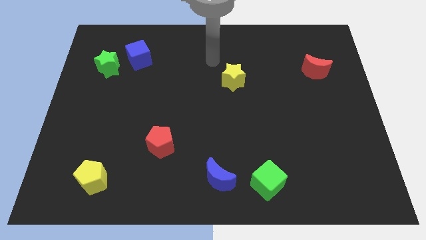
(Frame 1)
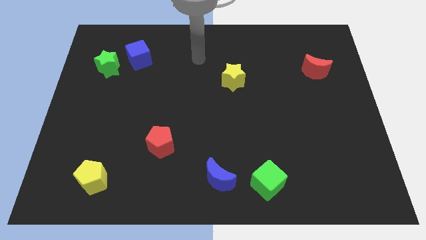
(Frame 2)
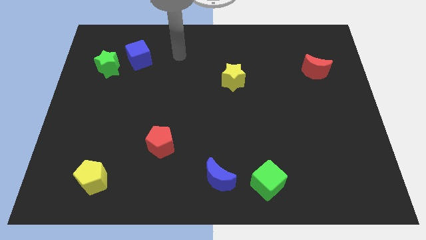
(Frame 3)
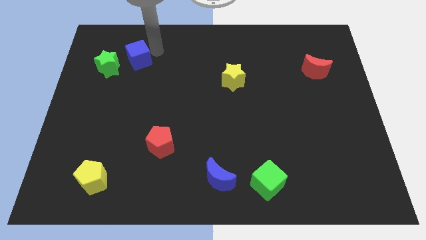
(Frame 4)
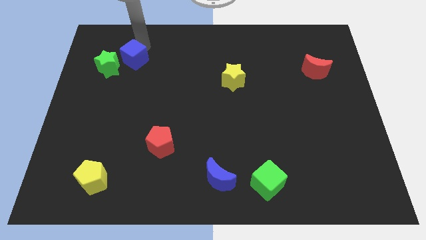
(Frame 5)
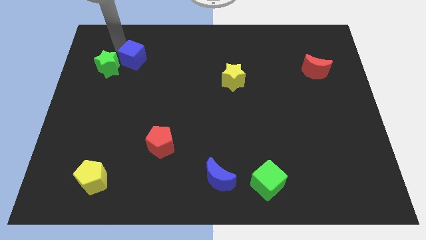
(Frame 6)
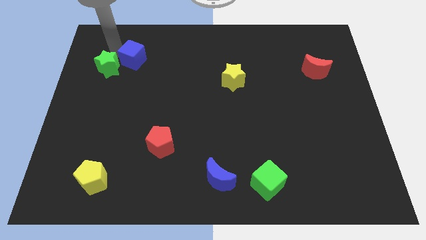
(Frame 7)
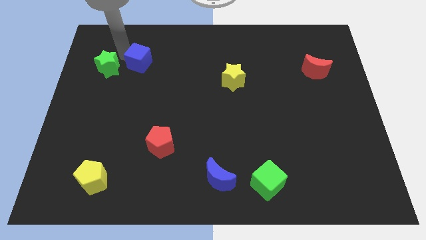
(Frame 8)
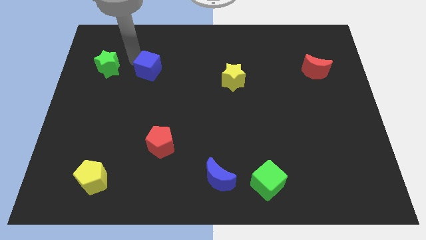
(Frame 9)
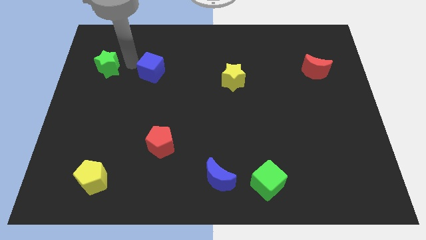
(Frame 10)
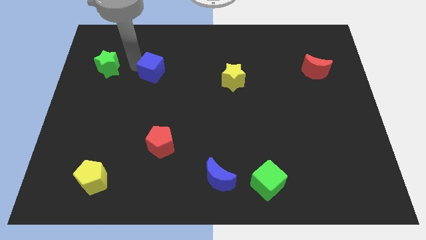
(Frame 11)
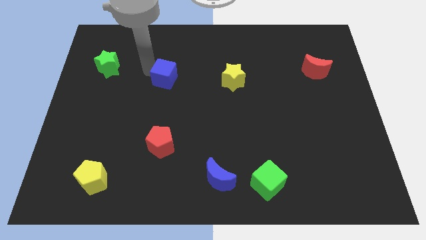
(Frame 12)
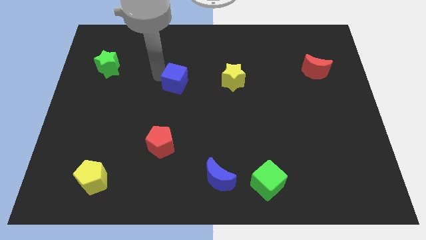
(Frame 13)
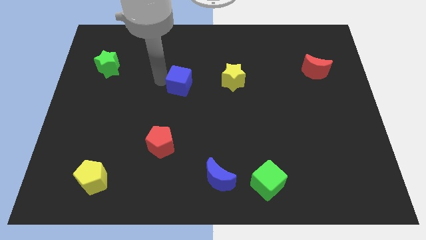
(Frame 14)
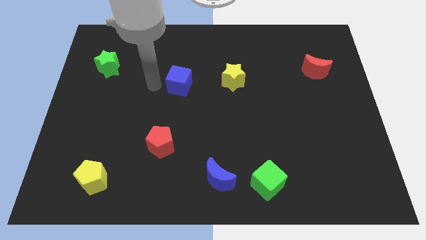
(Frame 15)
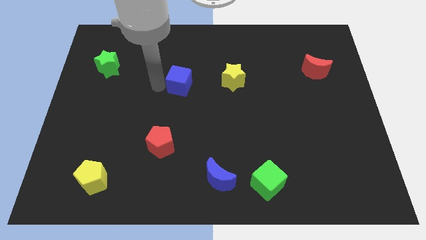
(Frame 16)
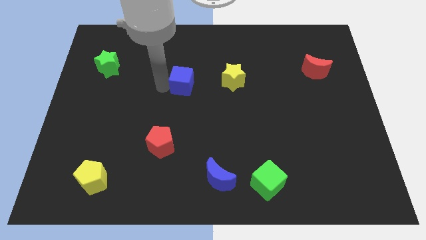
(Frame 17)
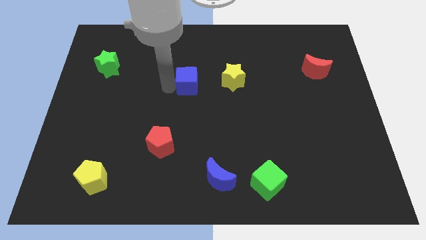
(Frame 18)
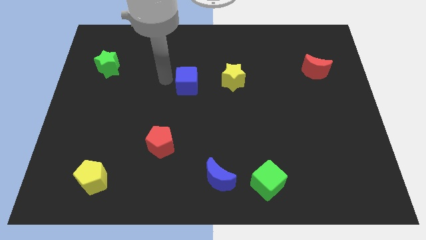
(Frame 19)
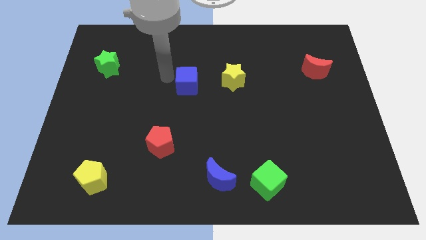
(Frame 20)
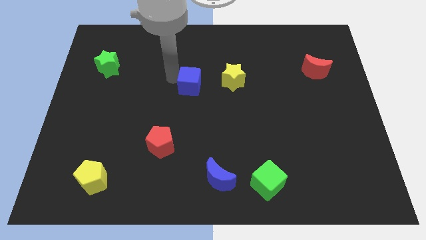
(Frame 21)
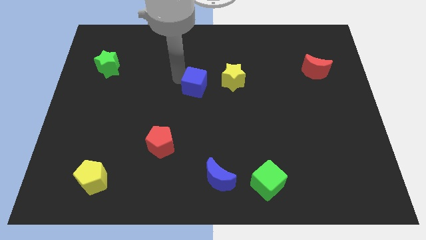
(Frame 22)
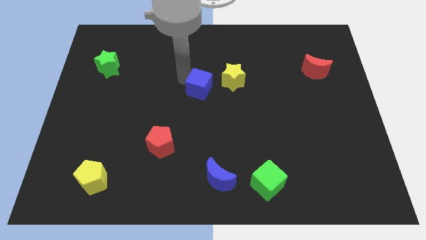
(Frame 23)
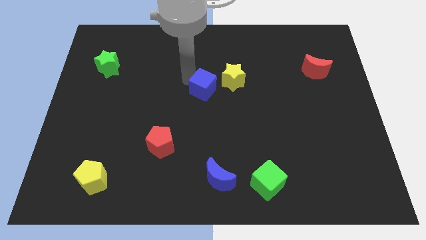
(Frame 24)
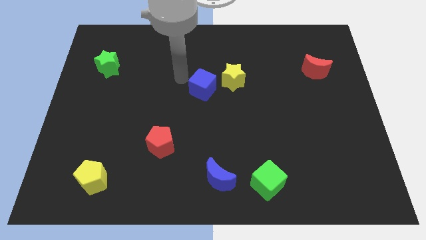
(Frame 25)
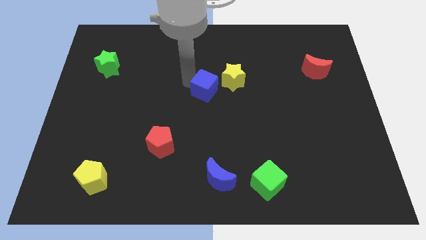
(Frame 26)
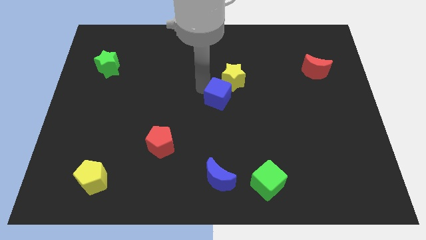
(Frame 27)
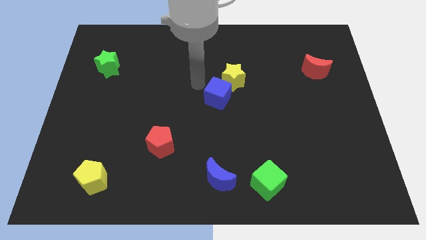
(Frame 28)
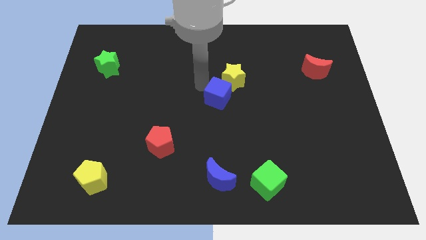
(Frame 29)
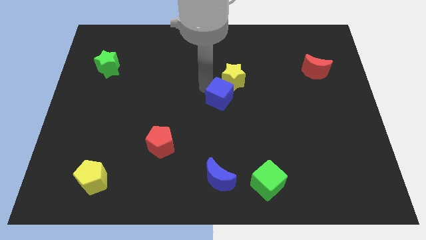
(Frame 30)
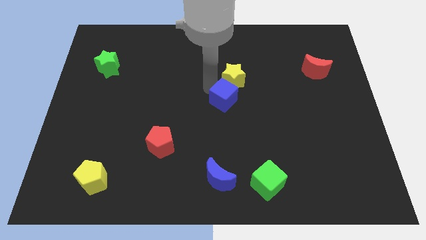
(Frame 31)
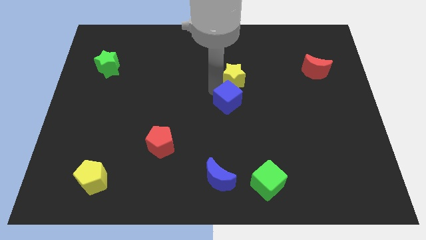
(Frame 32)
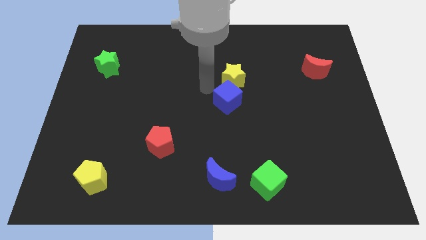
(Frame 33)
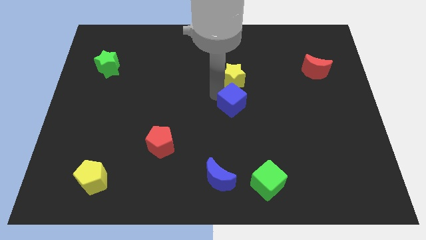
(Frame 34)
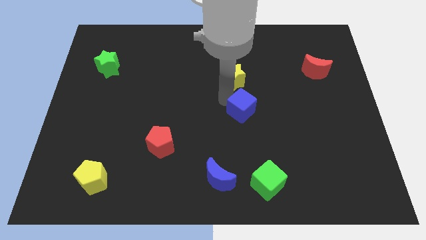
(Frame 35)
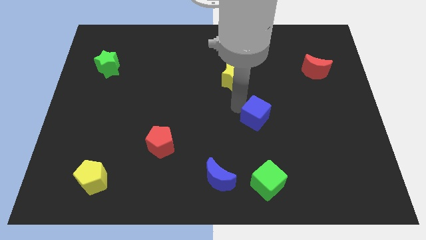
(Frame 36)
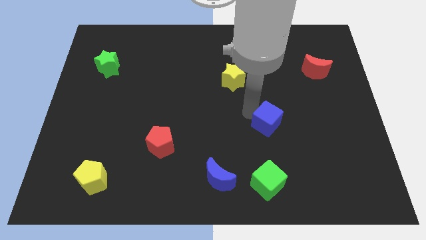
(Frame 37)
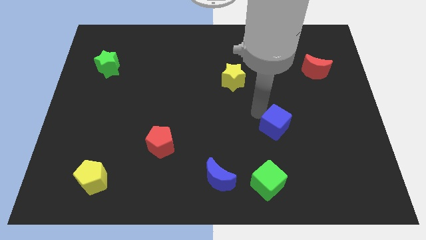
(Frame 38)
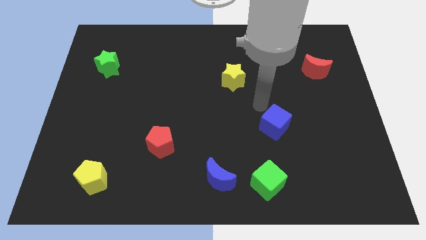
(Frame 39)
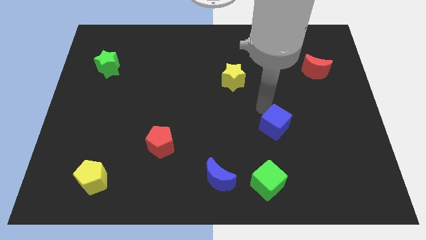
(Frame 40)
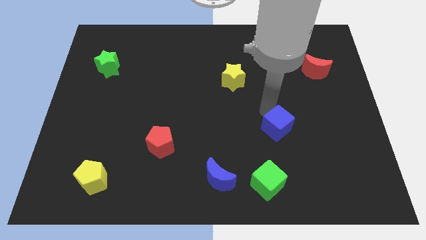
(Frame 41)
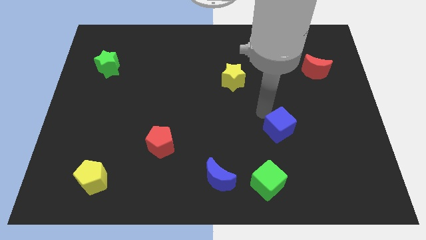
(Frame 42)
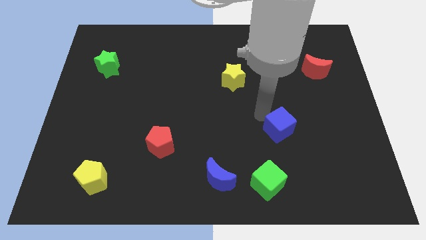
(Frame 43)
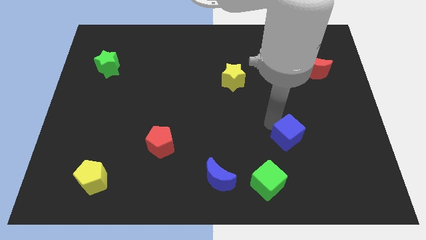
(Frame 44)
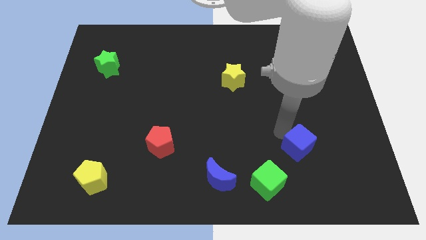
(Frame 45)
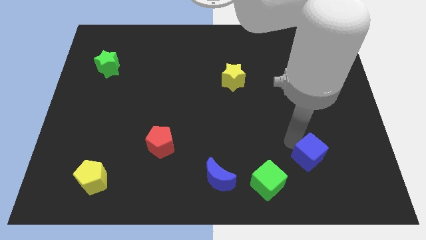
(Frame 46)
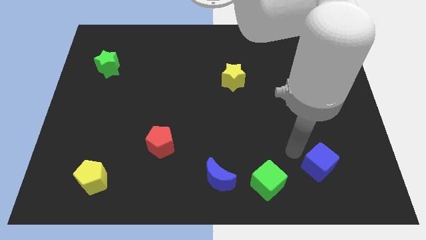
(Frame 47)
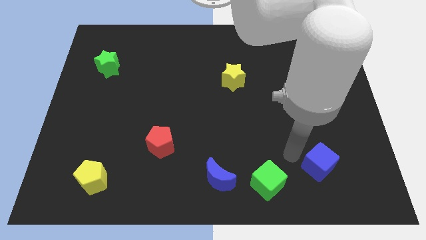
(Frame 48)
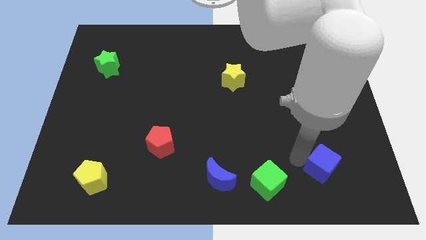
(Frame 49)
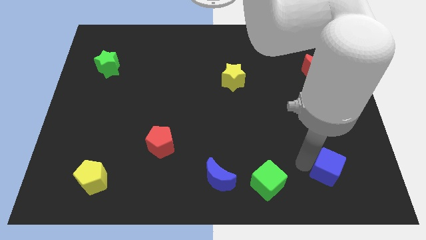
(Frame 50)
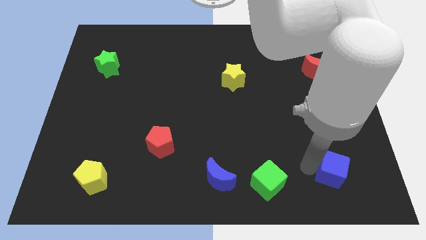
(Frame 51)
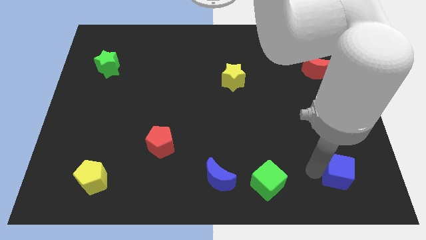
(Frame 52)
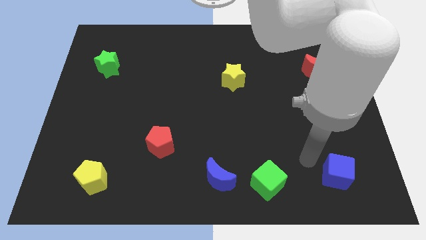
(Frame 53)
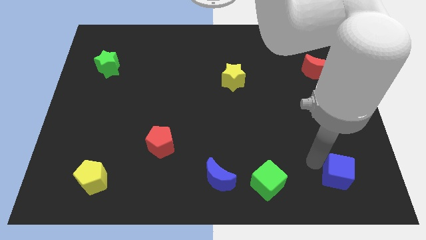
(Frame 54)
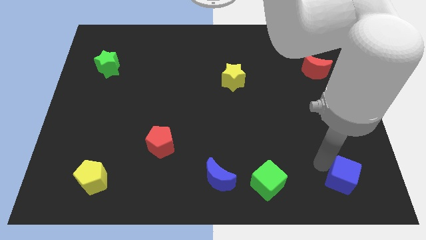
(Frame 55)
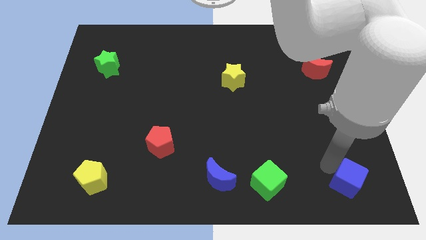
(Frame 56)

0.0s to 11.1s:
put the blue cube to the bottom right

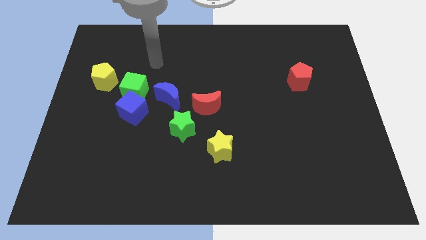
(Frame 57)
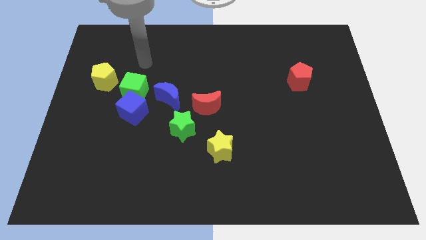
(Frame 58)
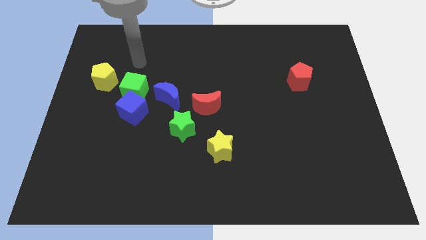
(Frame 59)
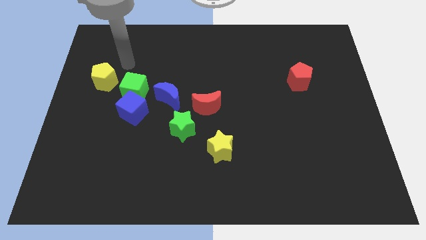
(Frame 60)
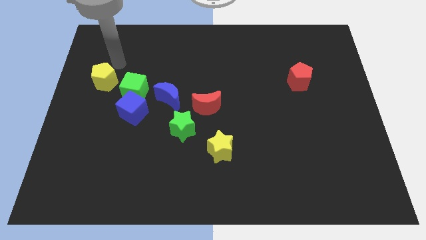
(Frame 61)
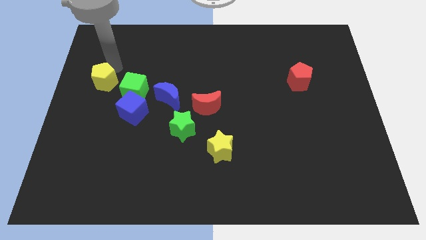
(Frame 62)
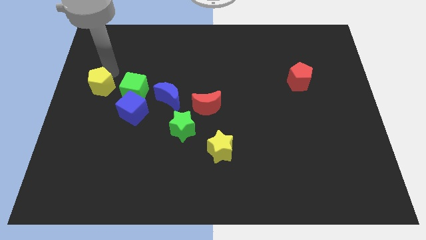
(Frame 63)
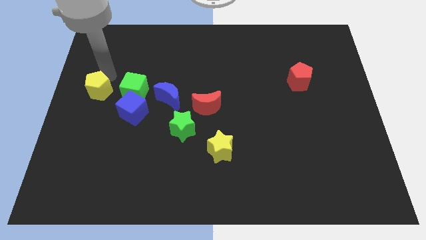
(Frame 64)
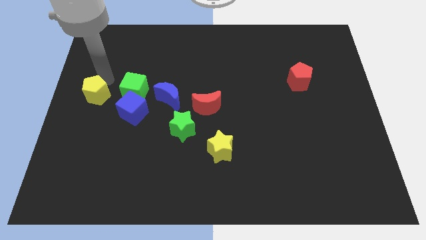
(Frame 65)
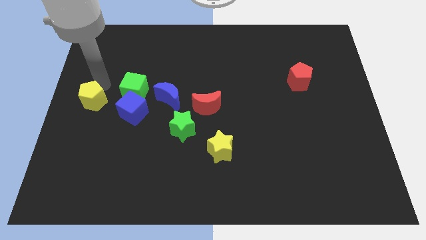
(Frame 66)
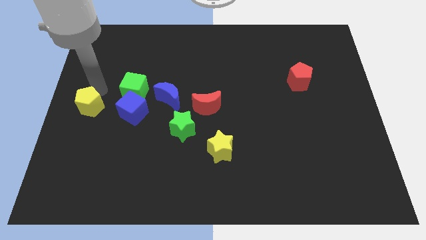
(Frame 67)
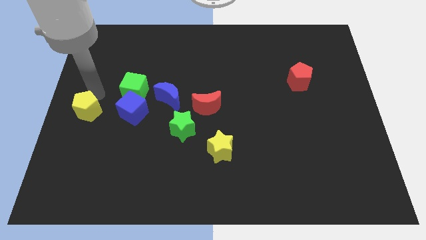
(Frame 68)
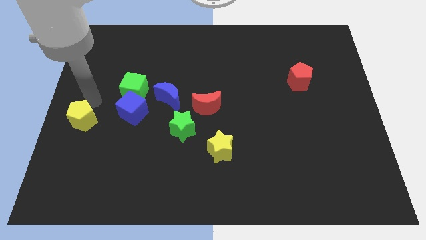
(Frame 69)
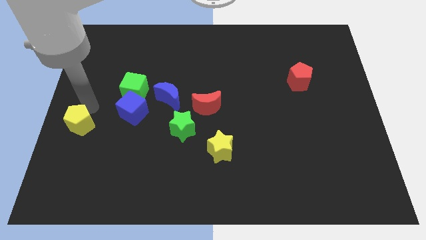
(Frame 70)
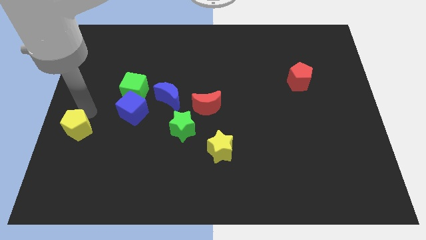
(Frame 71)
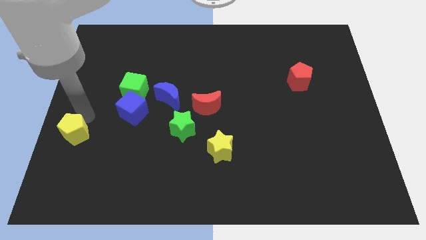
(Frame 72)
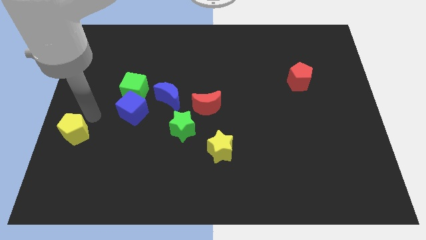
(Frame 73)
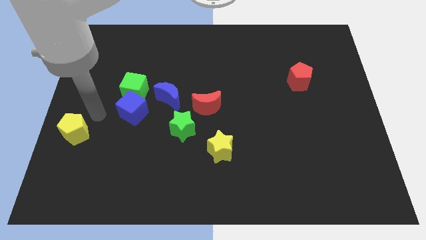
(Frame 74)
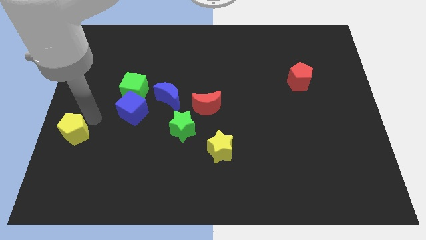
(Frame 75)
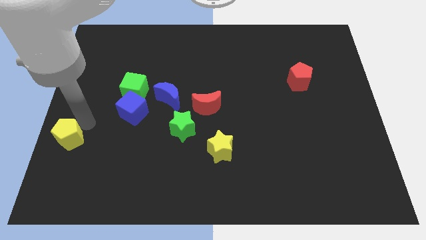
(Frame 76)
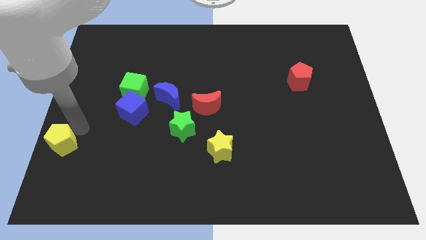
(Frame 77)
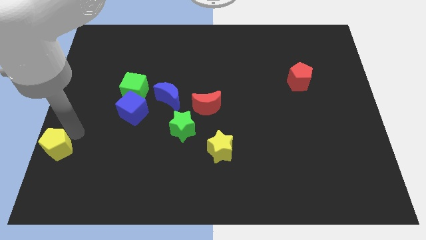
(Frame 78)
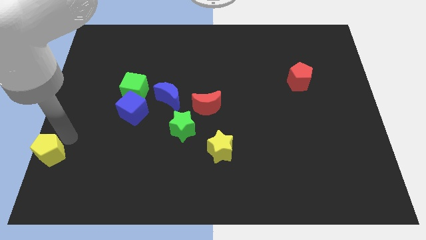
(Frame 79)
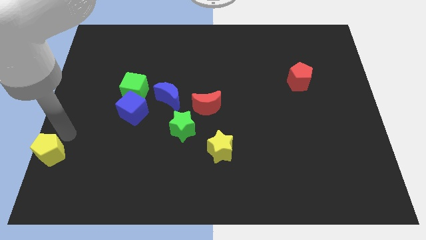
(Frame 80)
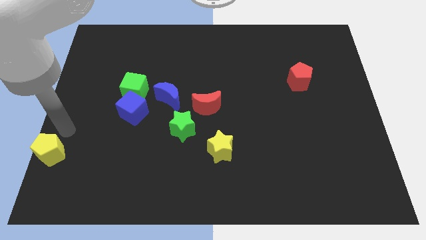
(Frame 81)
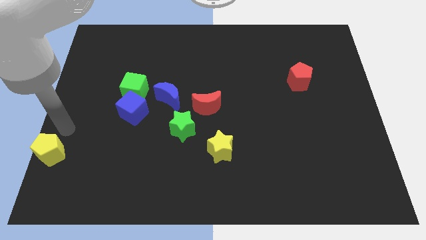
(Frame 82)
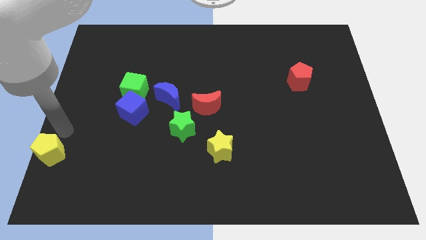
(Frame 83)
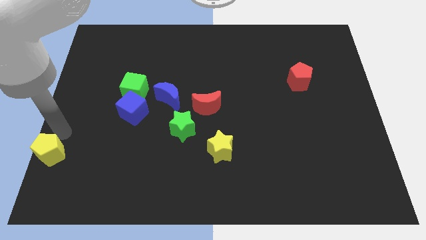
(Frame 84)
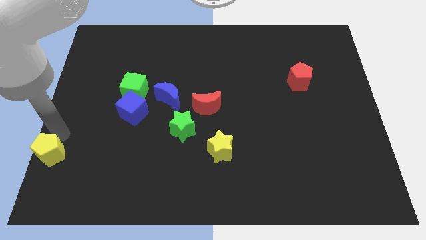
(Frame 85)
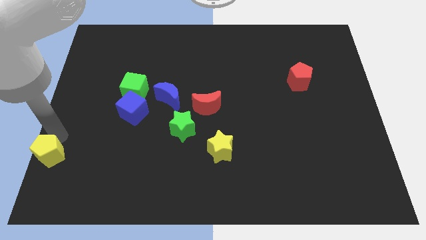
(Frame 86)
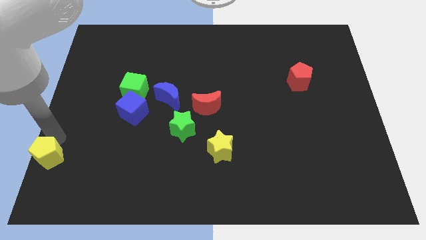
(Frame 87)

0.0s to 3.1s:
slide the yellow pentagon to the bottom left of the board
